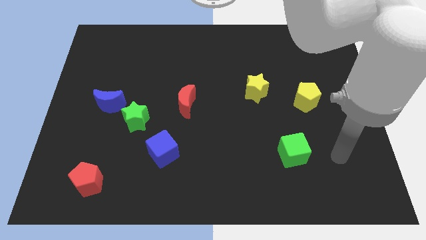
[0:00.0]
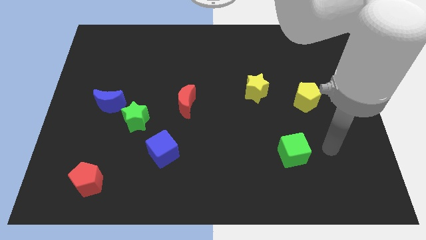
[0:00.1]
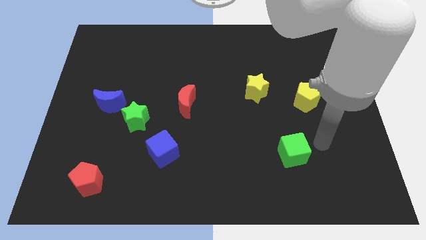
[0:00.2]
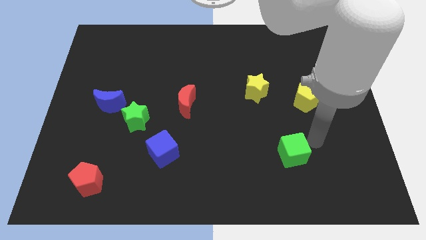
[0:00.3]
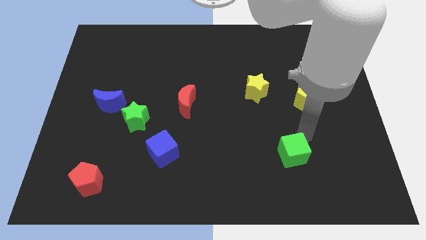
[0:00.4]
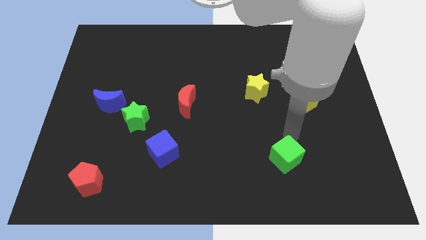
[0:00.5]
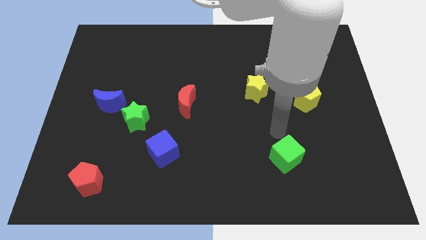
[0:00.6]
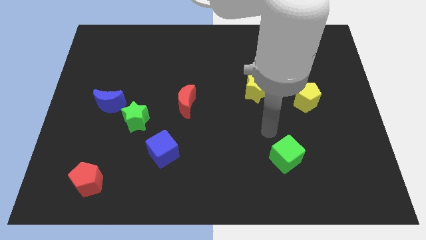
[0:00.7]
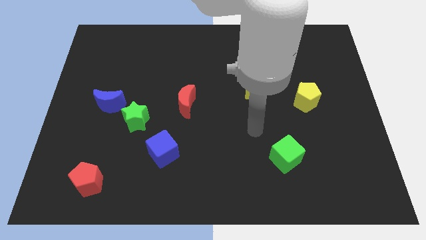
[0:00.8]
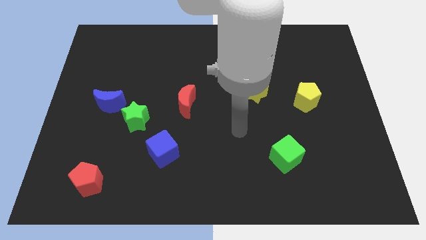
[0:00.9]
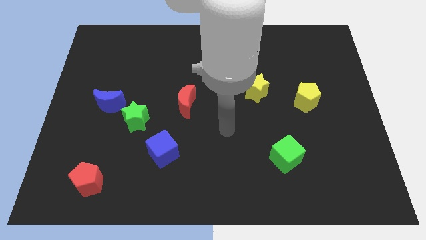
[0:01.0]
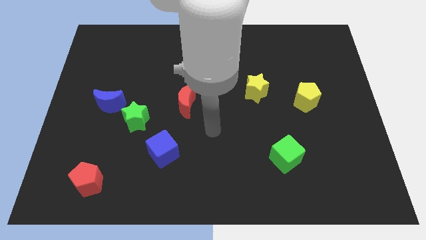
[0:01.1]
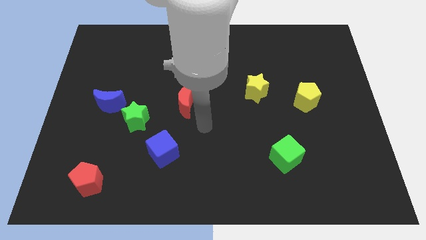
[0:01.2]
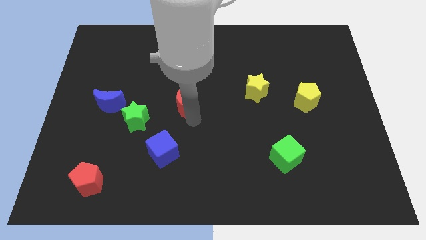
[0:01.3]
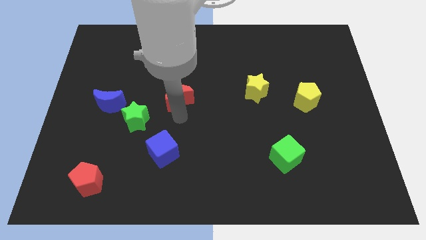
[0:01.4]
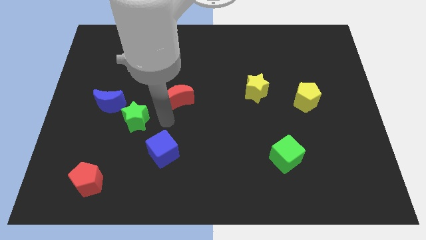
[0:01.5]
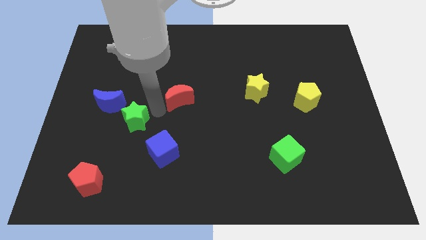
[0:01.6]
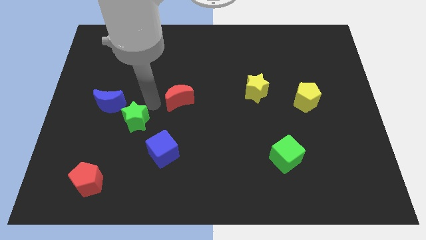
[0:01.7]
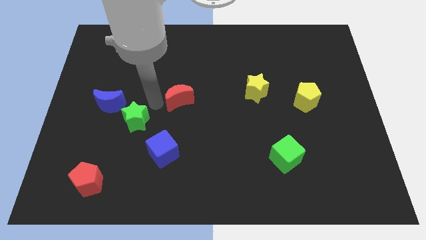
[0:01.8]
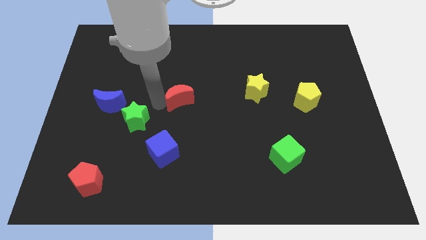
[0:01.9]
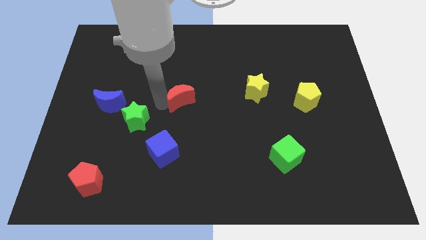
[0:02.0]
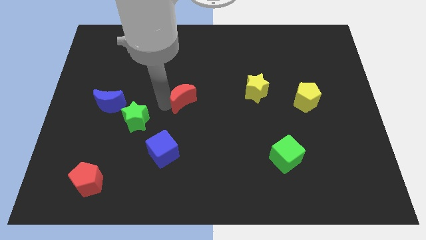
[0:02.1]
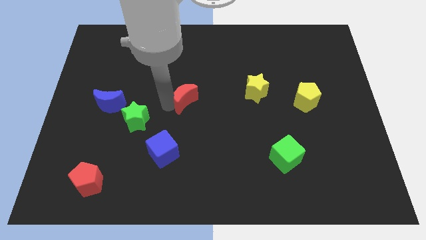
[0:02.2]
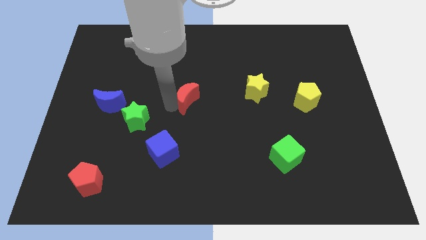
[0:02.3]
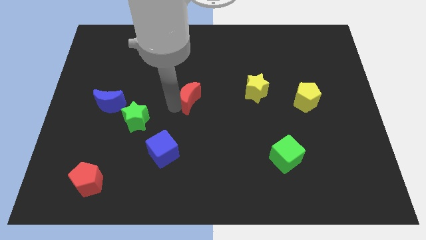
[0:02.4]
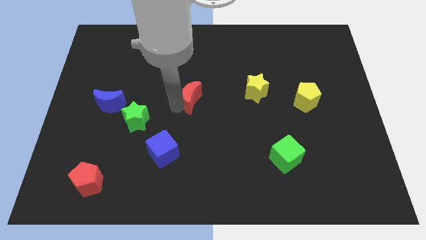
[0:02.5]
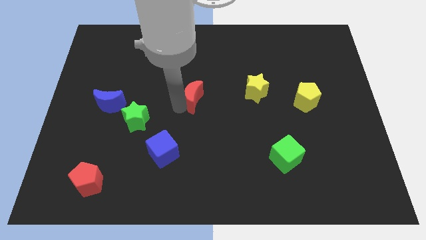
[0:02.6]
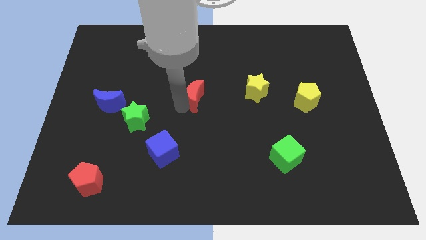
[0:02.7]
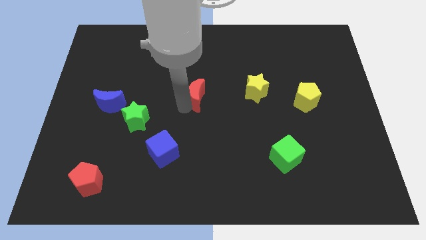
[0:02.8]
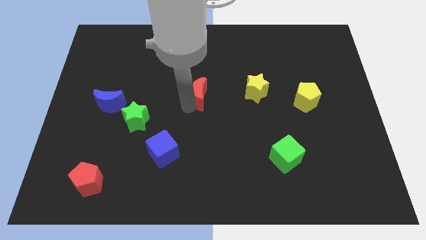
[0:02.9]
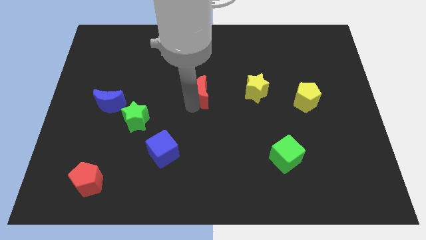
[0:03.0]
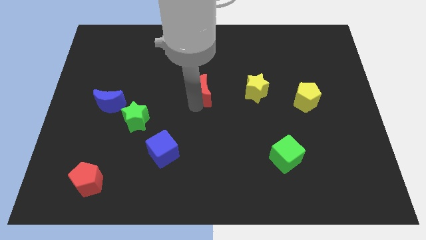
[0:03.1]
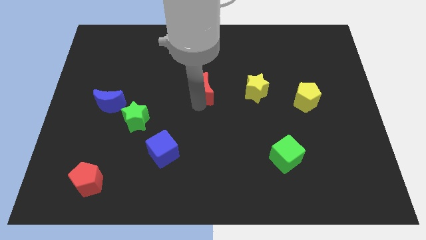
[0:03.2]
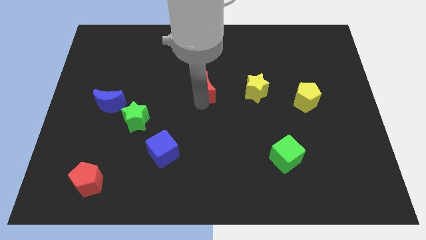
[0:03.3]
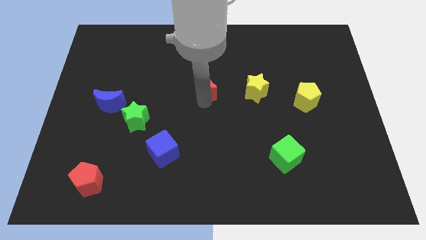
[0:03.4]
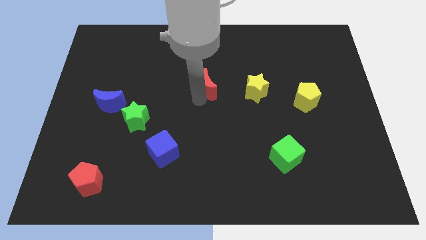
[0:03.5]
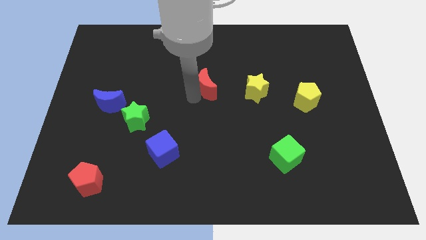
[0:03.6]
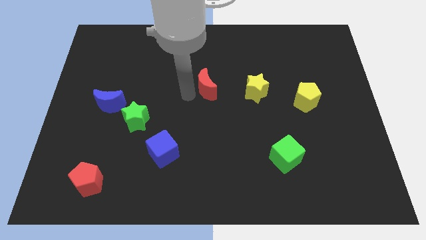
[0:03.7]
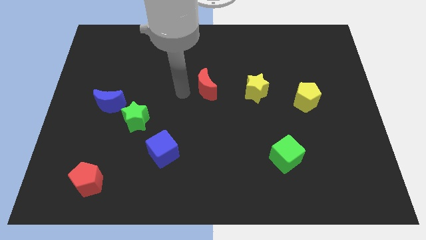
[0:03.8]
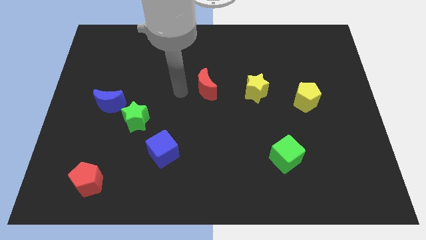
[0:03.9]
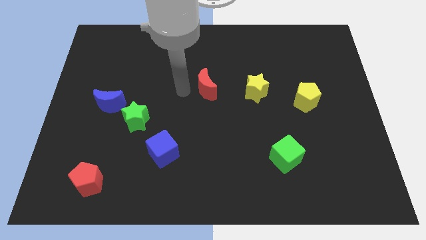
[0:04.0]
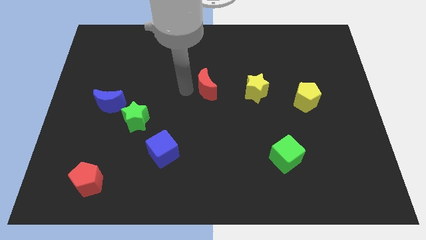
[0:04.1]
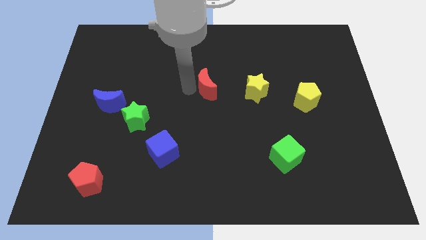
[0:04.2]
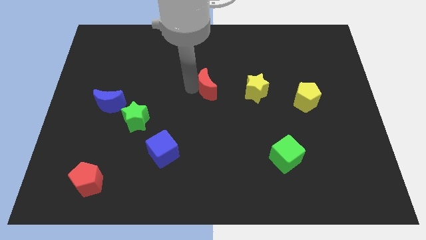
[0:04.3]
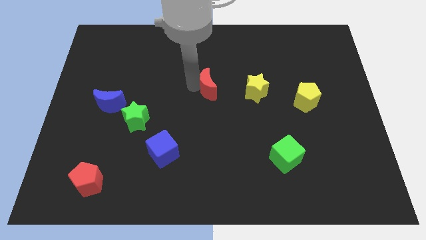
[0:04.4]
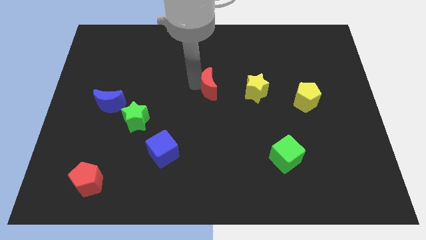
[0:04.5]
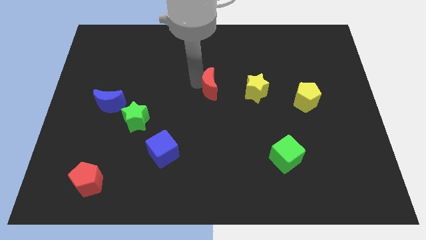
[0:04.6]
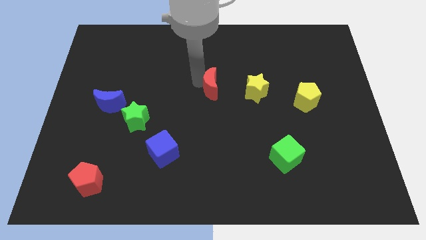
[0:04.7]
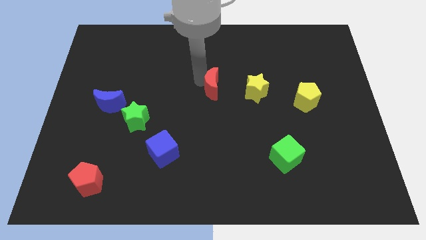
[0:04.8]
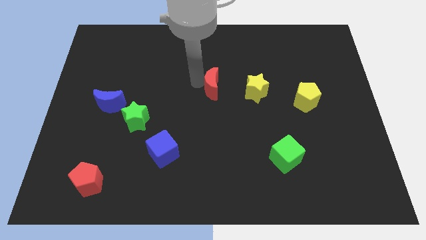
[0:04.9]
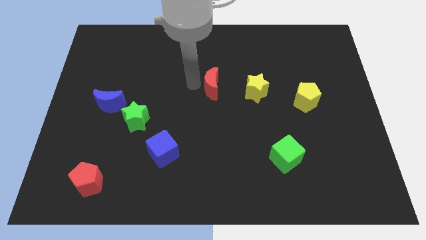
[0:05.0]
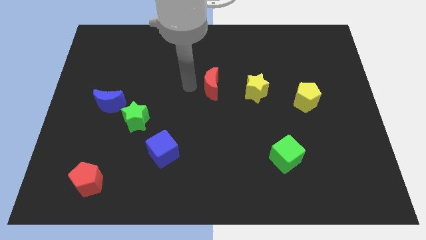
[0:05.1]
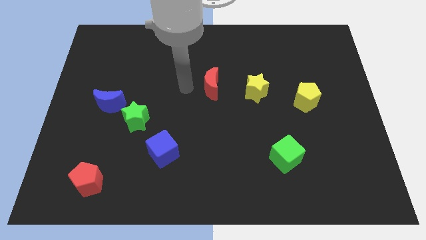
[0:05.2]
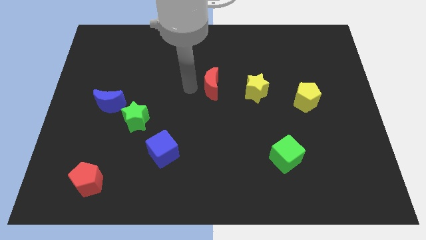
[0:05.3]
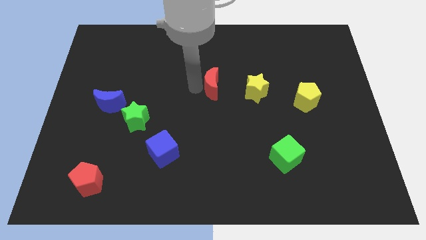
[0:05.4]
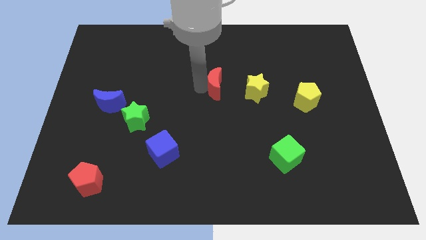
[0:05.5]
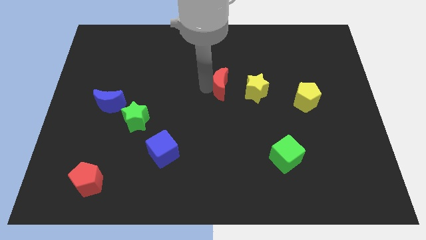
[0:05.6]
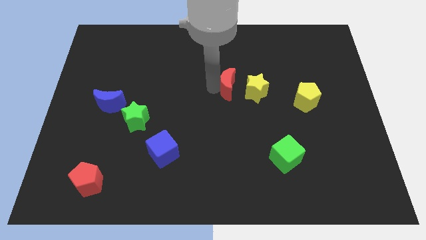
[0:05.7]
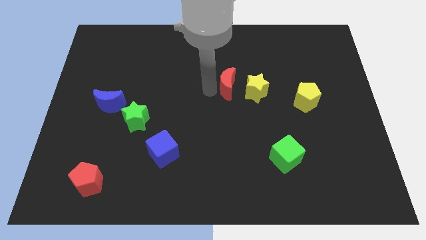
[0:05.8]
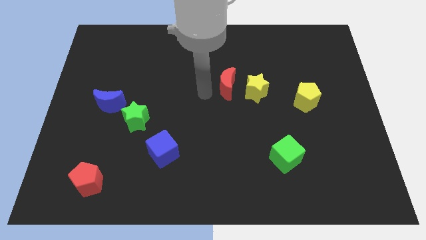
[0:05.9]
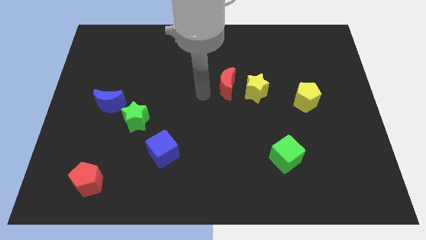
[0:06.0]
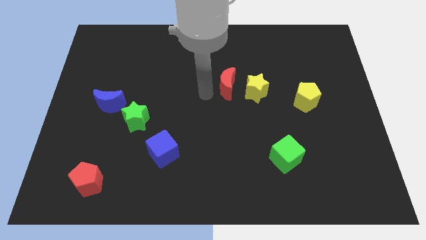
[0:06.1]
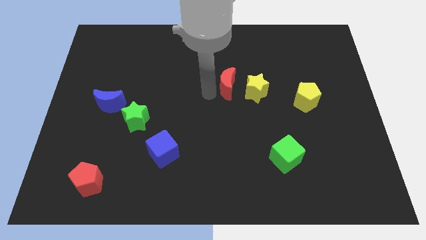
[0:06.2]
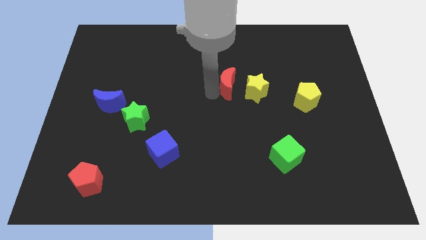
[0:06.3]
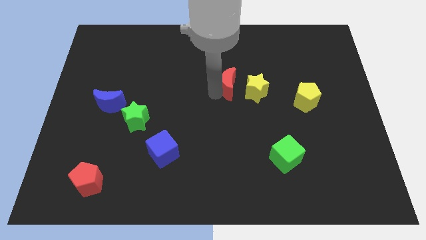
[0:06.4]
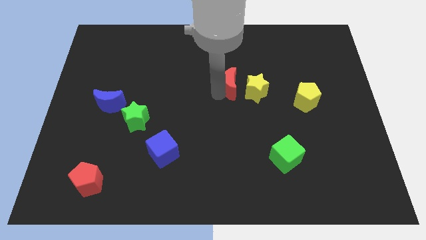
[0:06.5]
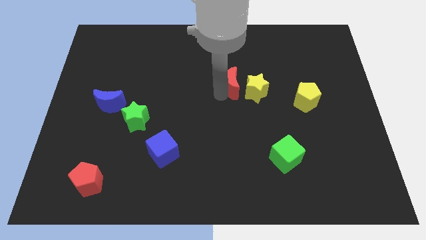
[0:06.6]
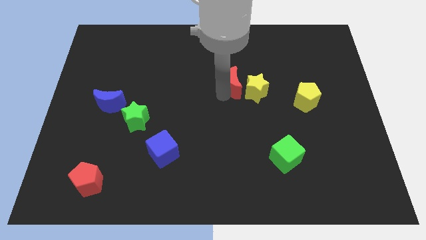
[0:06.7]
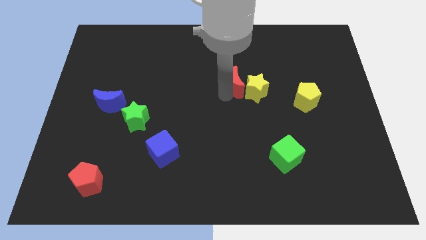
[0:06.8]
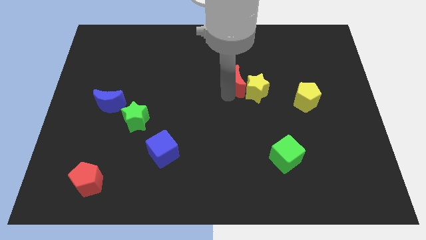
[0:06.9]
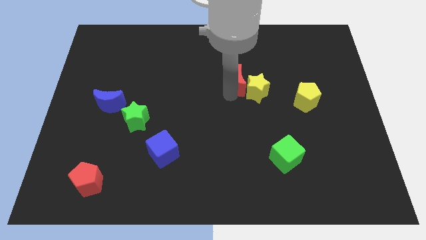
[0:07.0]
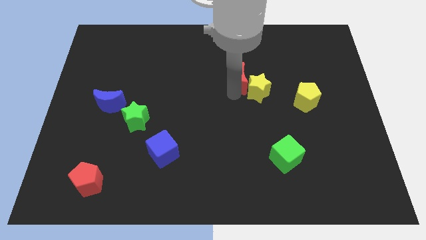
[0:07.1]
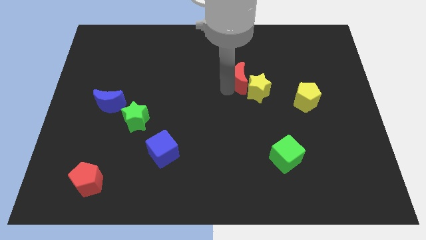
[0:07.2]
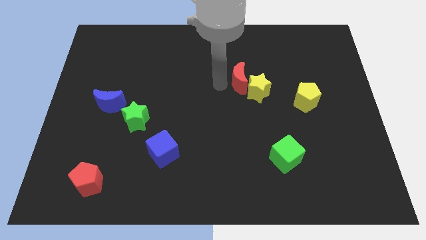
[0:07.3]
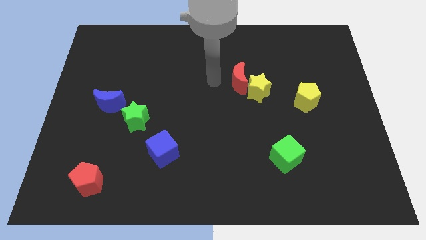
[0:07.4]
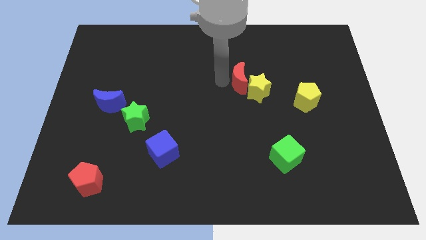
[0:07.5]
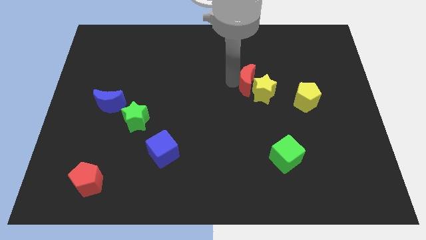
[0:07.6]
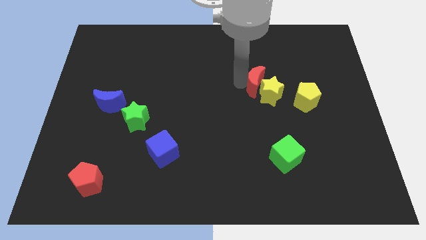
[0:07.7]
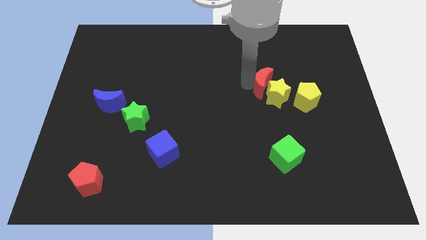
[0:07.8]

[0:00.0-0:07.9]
move the red moon diagonally up and to the left of the yellow pentagon
